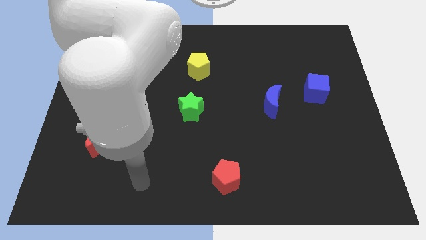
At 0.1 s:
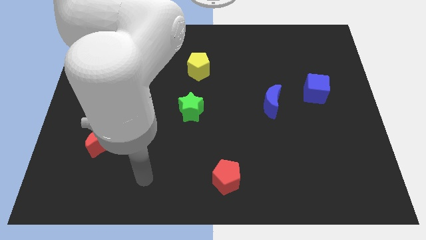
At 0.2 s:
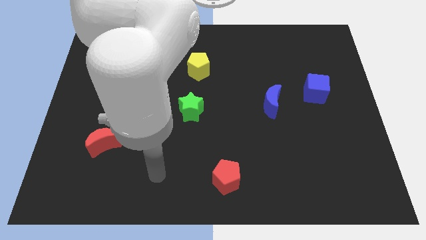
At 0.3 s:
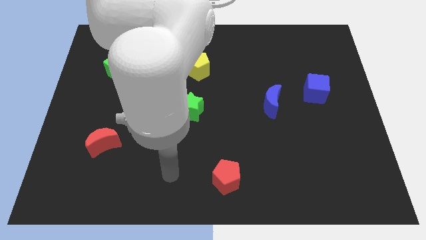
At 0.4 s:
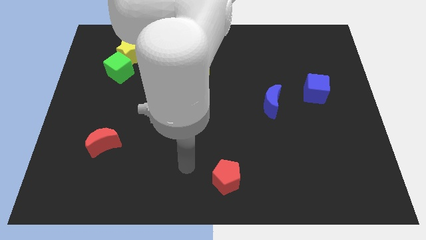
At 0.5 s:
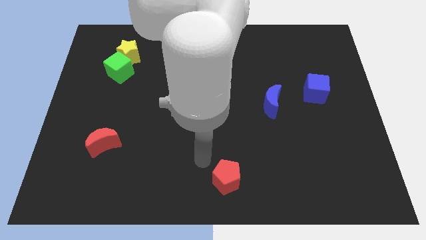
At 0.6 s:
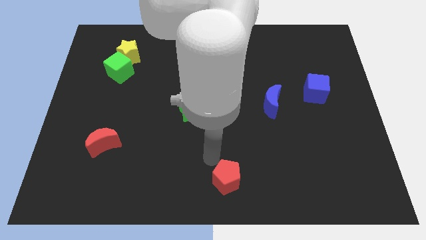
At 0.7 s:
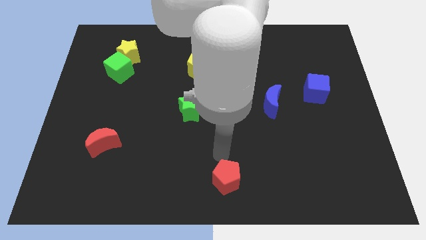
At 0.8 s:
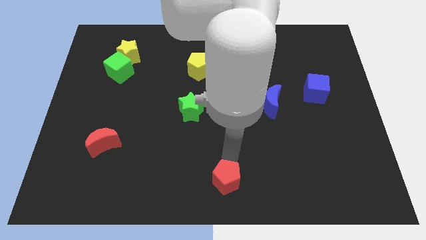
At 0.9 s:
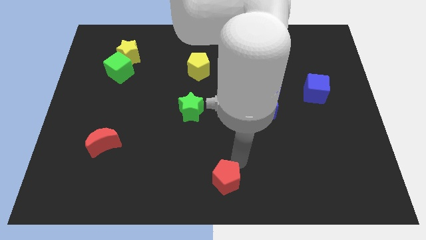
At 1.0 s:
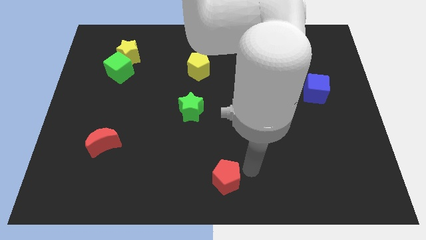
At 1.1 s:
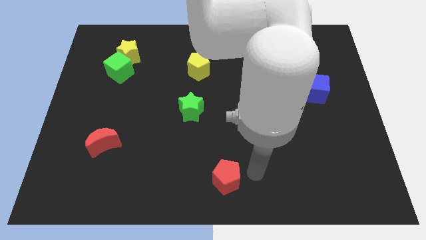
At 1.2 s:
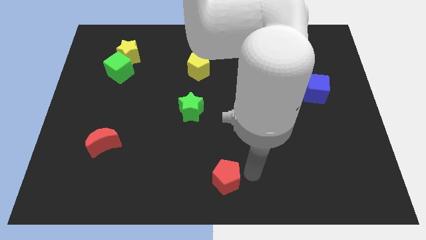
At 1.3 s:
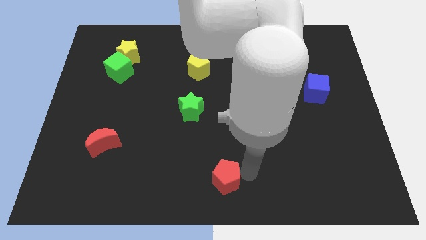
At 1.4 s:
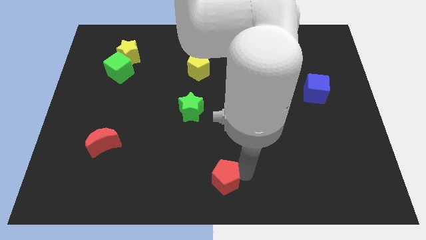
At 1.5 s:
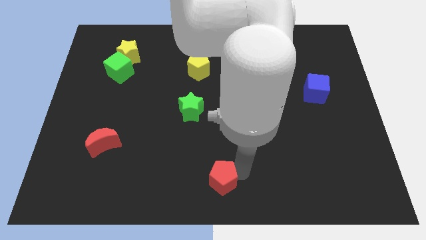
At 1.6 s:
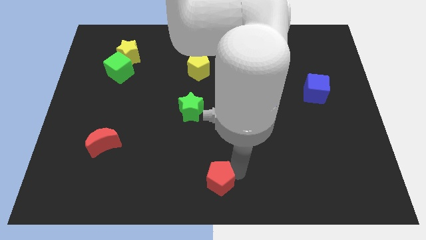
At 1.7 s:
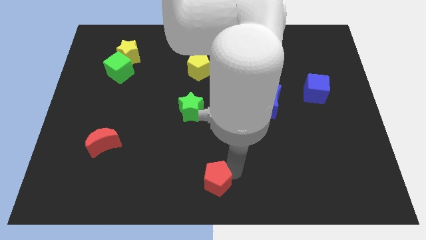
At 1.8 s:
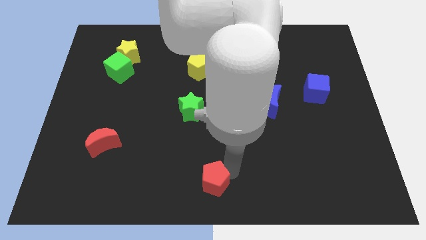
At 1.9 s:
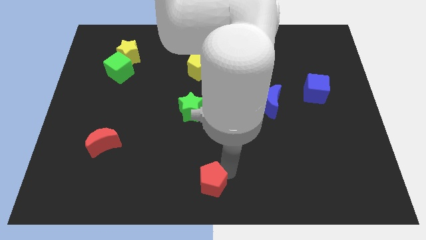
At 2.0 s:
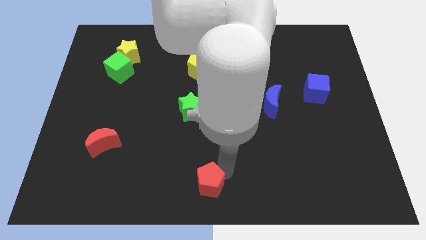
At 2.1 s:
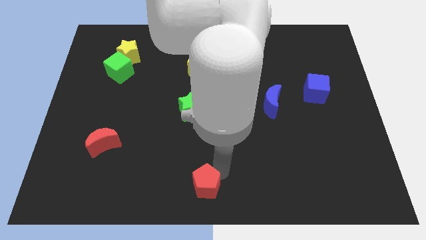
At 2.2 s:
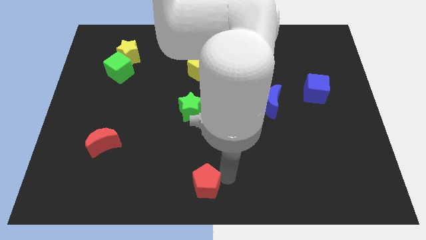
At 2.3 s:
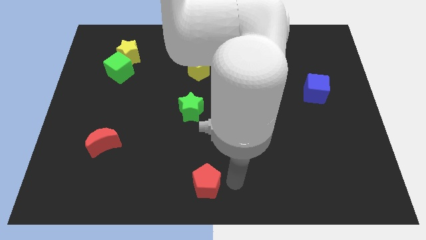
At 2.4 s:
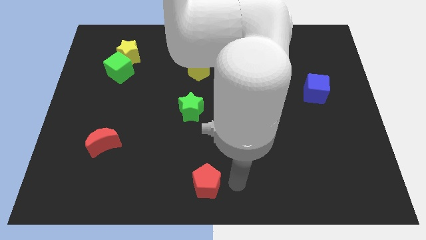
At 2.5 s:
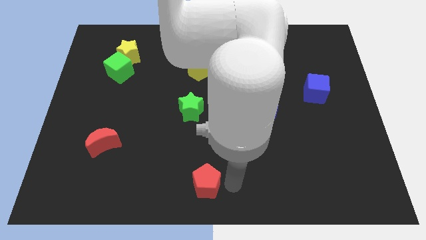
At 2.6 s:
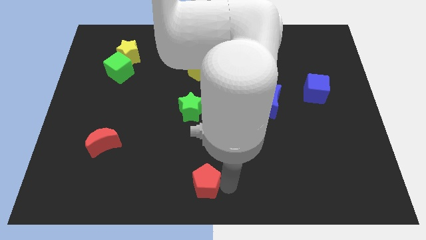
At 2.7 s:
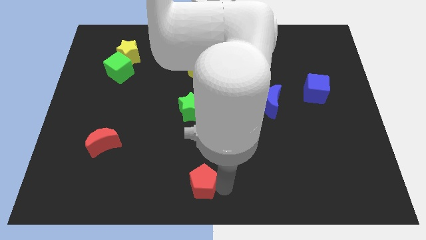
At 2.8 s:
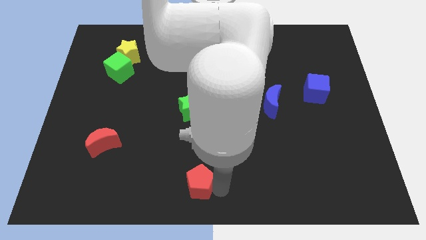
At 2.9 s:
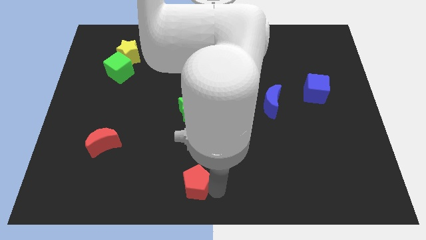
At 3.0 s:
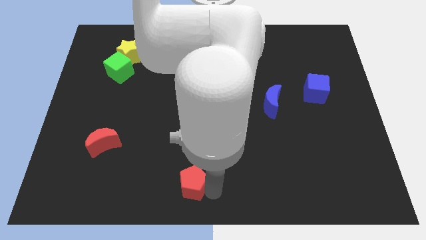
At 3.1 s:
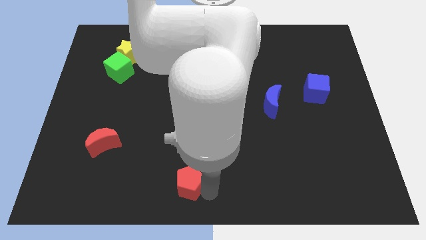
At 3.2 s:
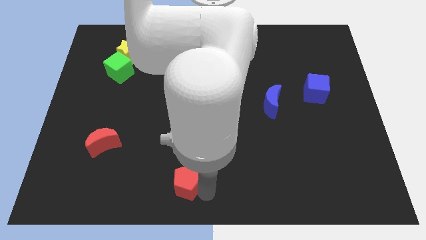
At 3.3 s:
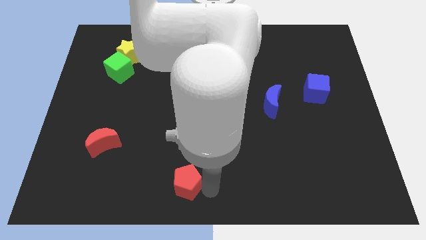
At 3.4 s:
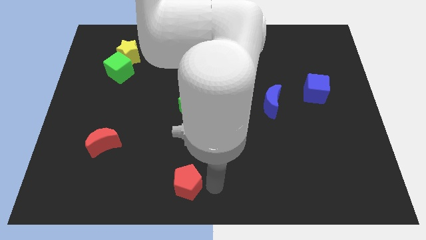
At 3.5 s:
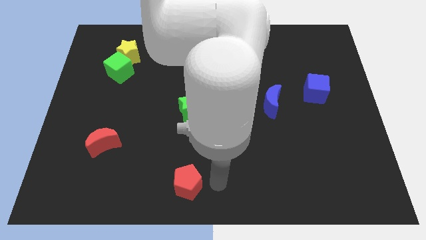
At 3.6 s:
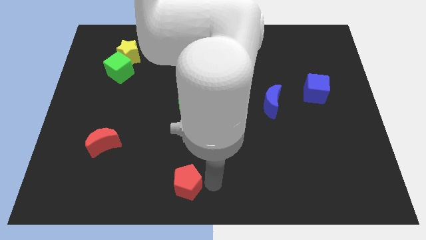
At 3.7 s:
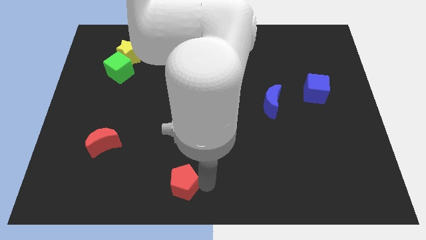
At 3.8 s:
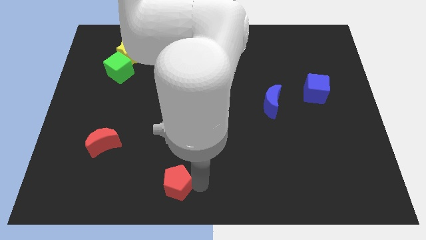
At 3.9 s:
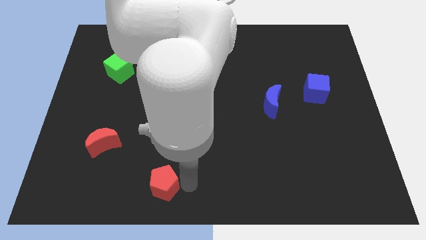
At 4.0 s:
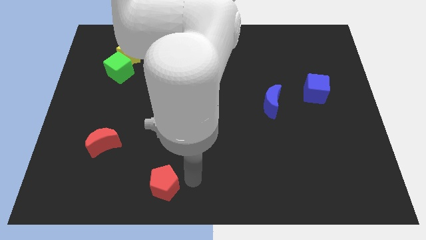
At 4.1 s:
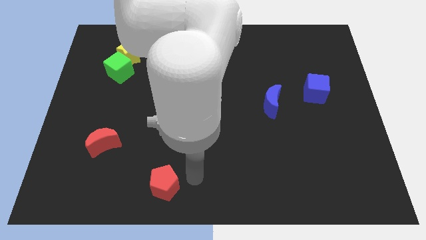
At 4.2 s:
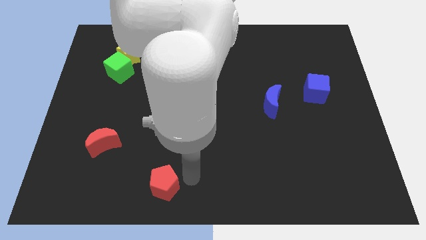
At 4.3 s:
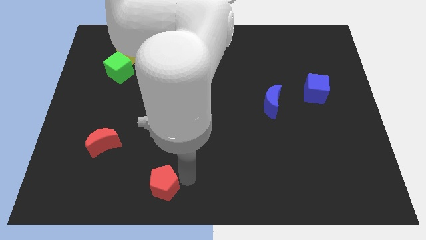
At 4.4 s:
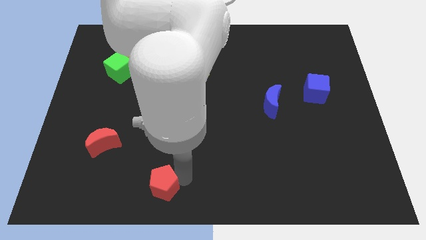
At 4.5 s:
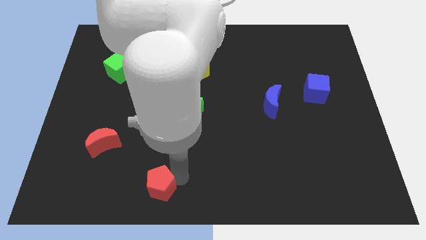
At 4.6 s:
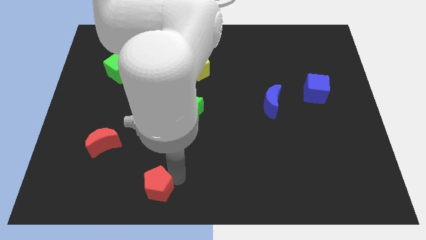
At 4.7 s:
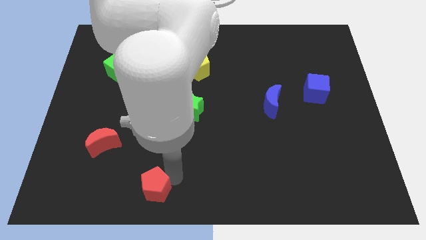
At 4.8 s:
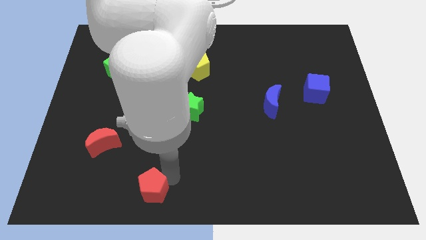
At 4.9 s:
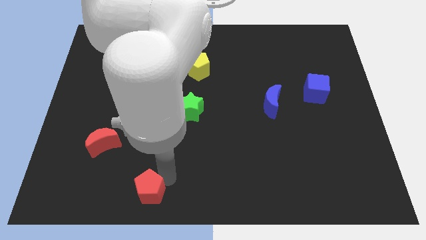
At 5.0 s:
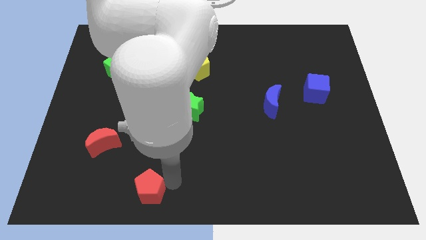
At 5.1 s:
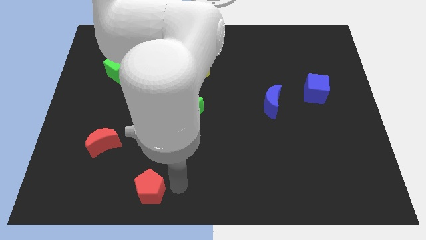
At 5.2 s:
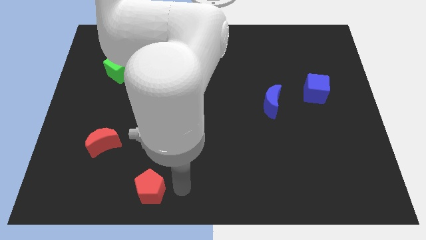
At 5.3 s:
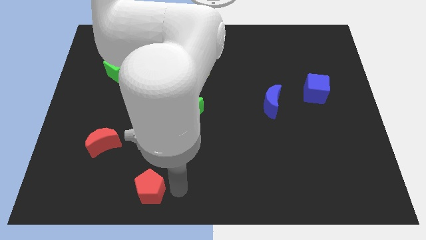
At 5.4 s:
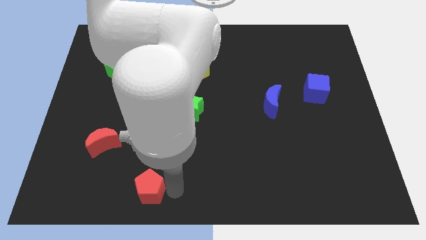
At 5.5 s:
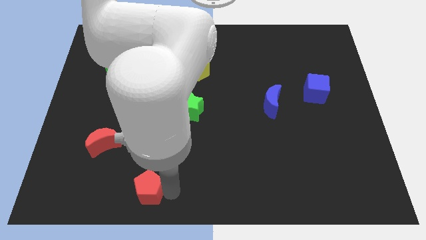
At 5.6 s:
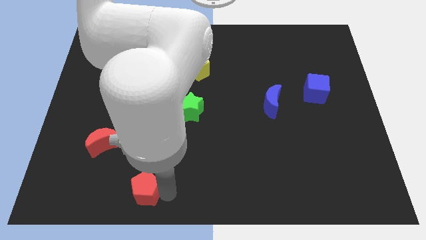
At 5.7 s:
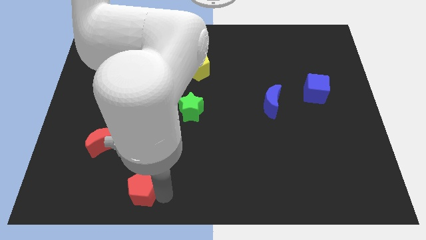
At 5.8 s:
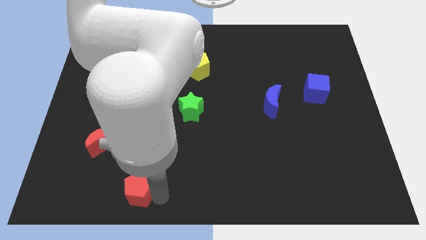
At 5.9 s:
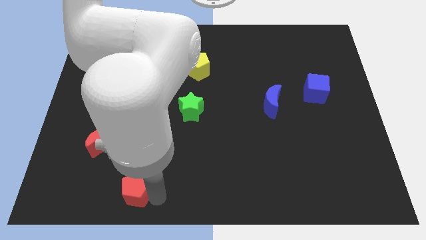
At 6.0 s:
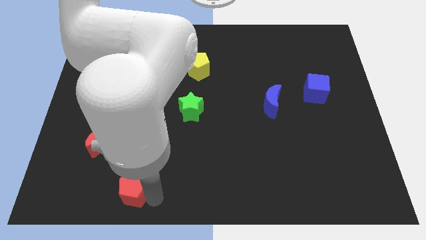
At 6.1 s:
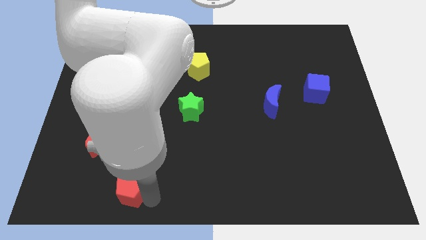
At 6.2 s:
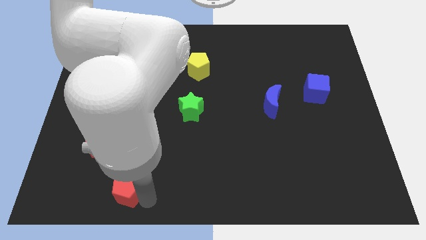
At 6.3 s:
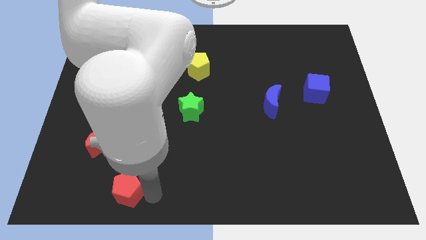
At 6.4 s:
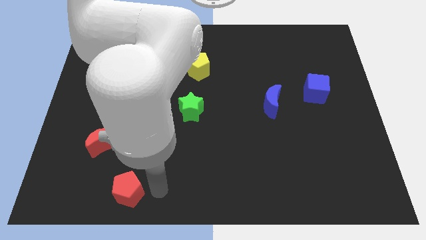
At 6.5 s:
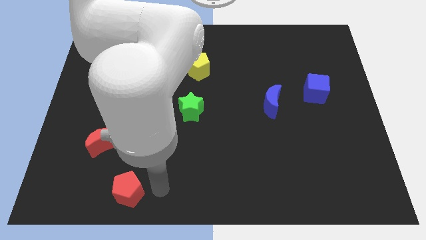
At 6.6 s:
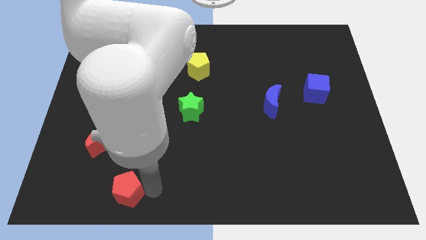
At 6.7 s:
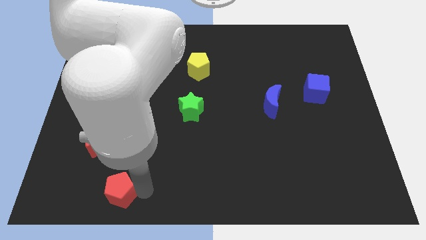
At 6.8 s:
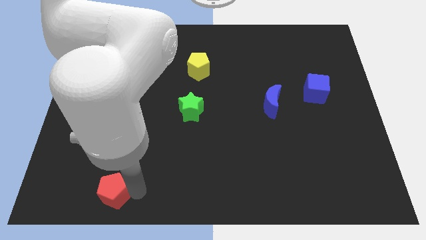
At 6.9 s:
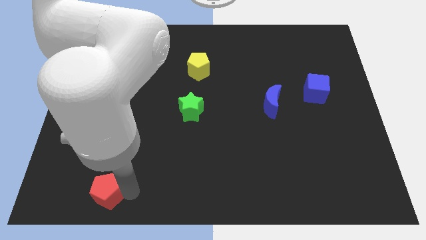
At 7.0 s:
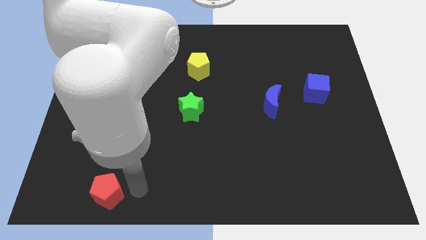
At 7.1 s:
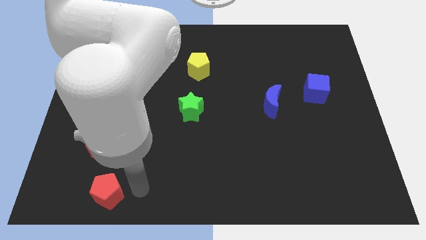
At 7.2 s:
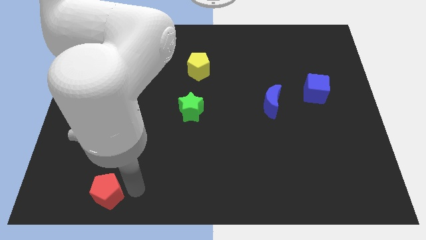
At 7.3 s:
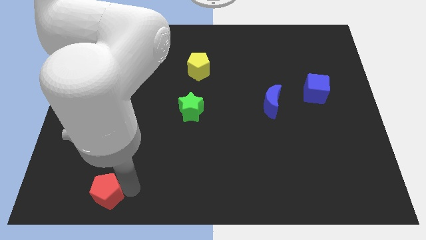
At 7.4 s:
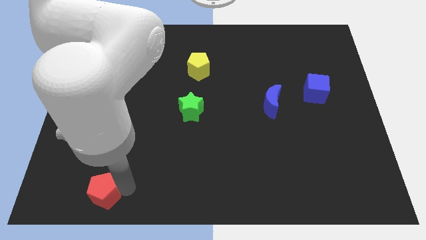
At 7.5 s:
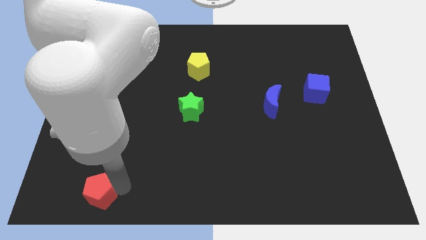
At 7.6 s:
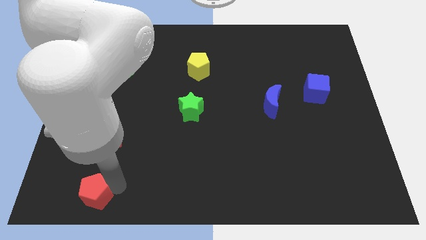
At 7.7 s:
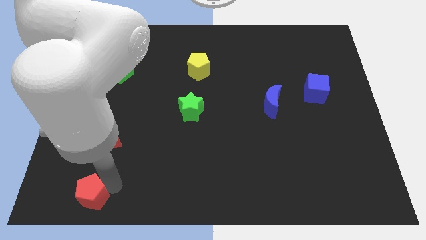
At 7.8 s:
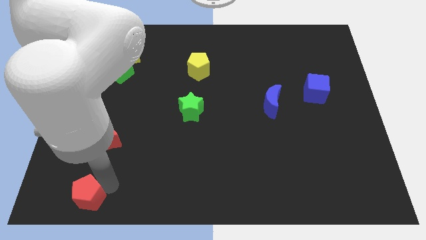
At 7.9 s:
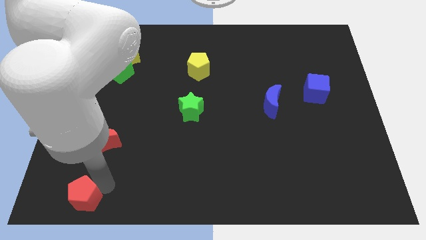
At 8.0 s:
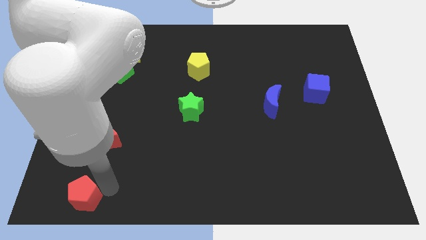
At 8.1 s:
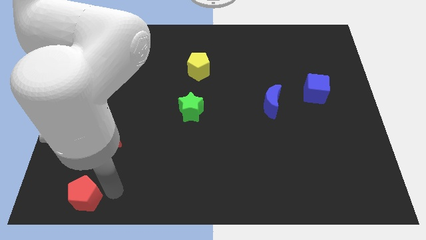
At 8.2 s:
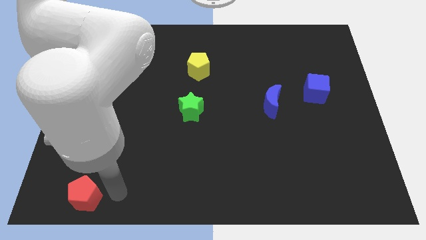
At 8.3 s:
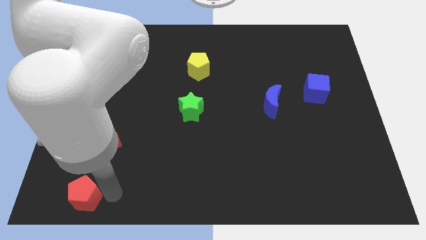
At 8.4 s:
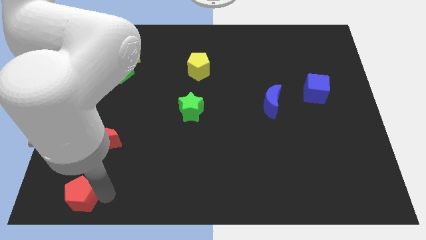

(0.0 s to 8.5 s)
put the red pentagon to the bottom left
